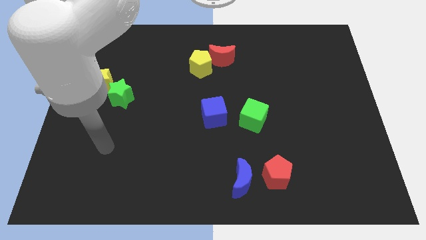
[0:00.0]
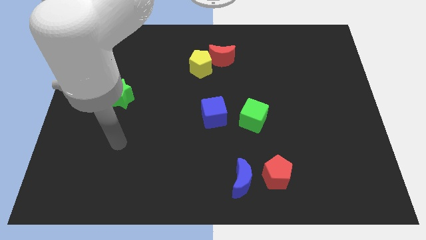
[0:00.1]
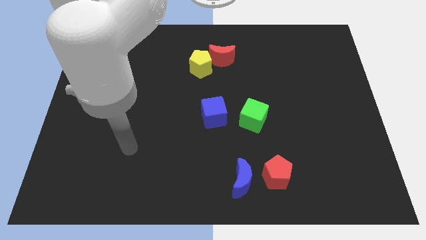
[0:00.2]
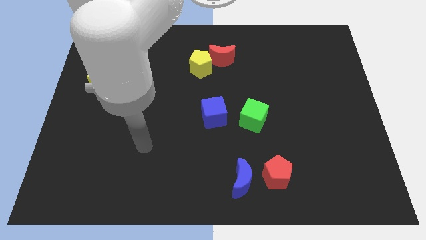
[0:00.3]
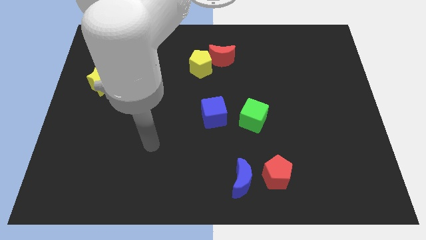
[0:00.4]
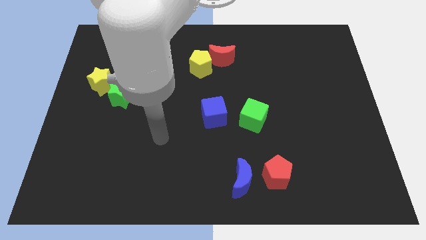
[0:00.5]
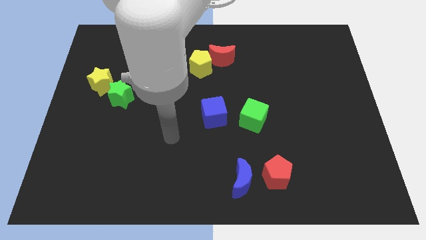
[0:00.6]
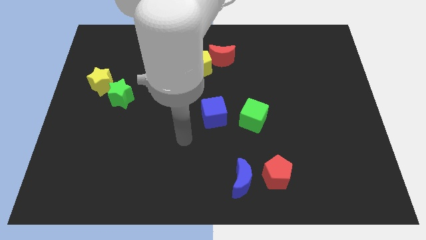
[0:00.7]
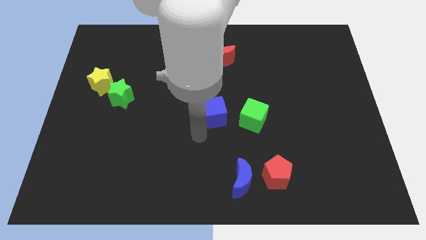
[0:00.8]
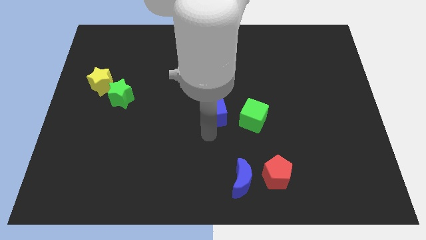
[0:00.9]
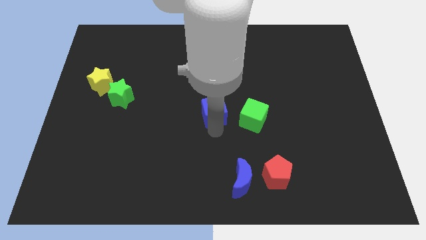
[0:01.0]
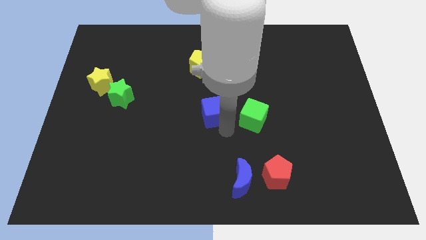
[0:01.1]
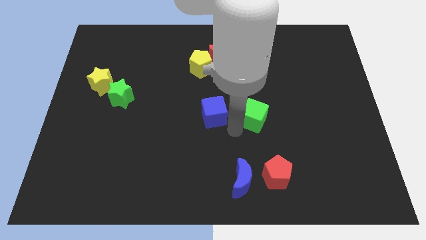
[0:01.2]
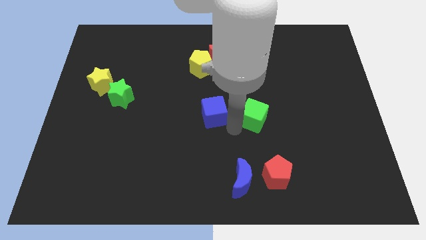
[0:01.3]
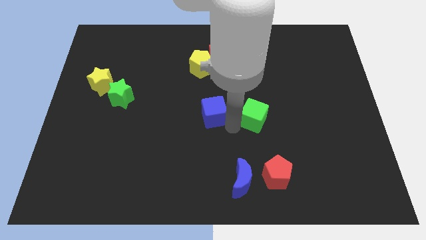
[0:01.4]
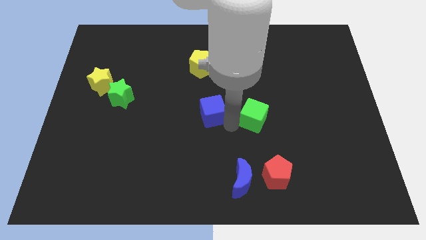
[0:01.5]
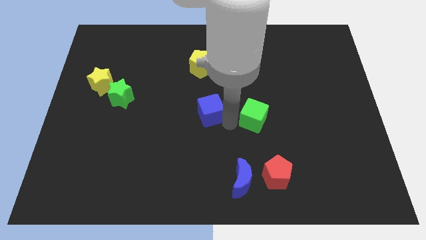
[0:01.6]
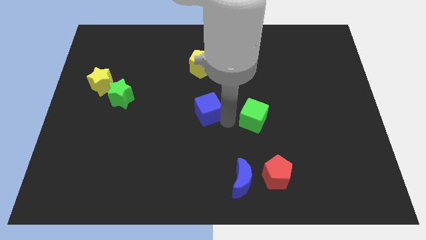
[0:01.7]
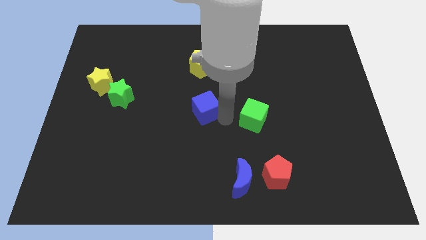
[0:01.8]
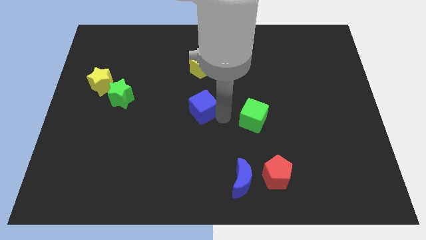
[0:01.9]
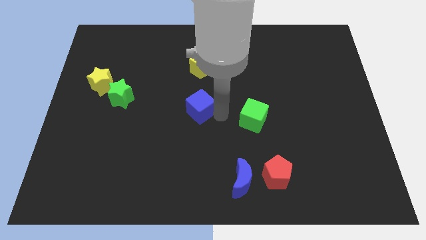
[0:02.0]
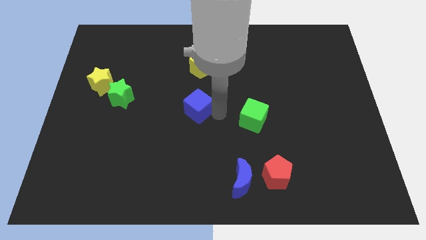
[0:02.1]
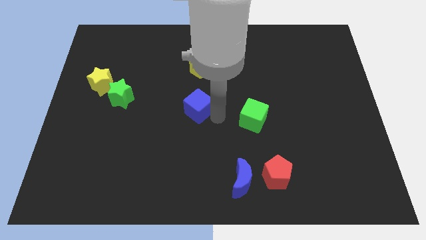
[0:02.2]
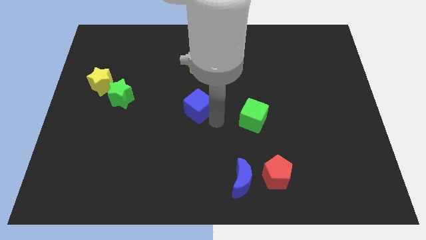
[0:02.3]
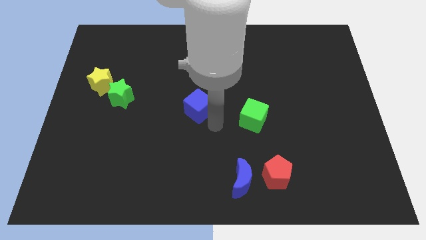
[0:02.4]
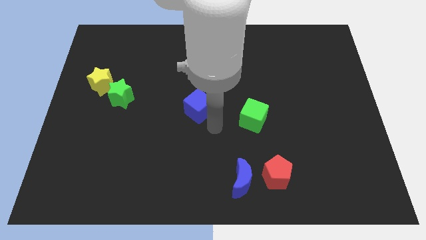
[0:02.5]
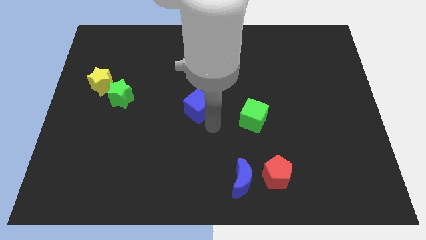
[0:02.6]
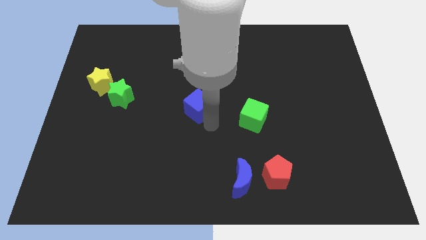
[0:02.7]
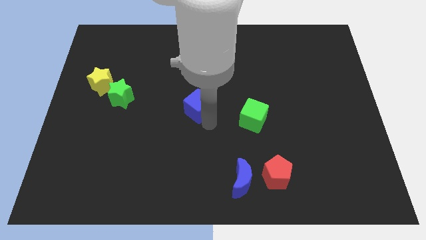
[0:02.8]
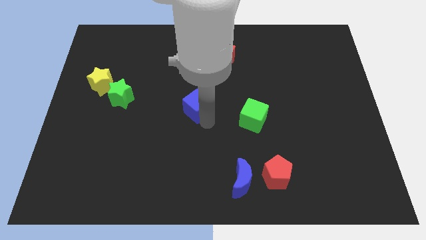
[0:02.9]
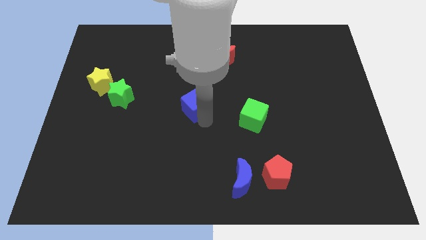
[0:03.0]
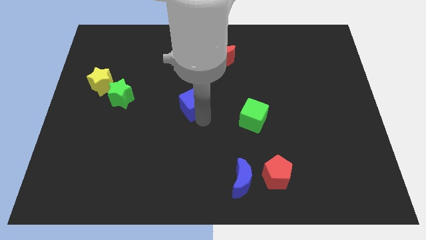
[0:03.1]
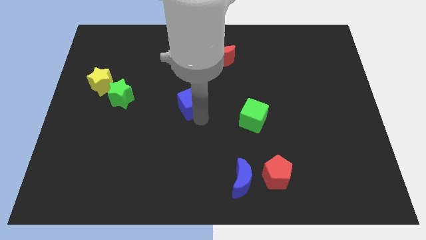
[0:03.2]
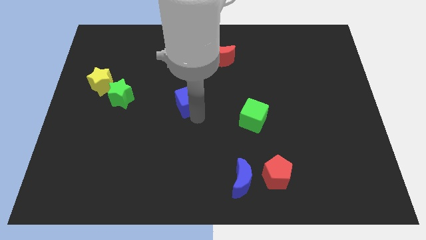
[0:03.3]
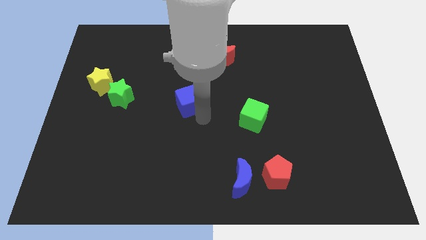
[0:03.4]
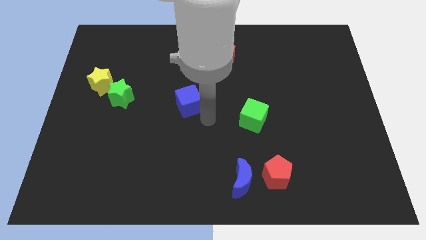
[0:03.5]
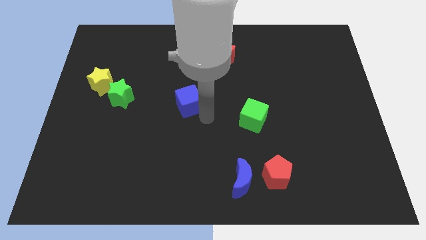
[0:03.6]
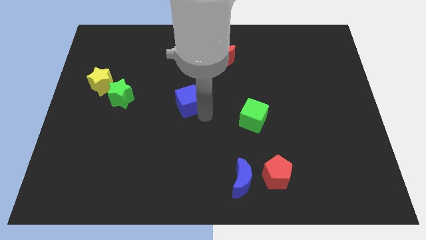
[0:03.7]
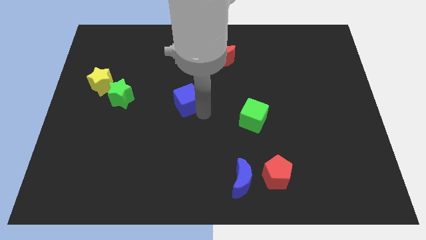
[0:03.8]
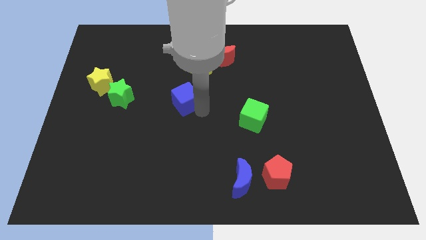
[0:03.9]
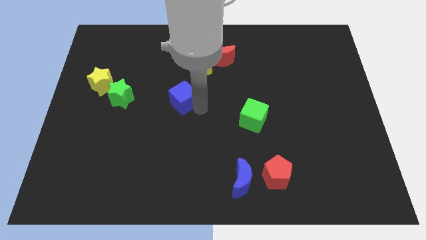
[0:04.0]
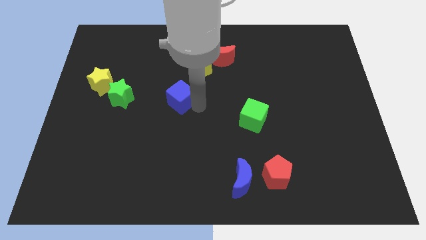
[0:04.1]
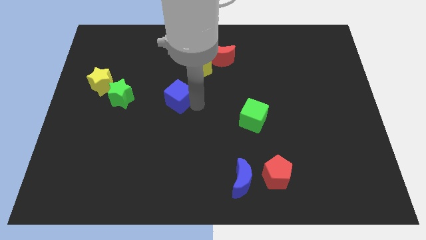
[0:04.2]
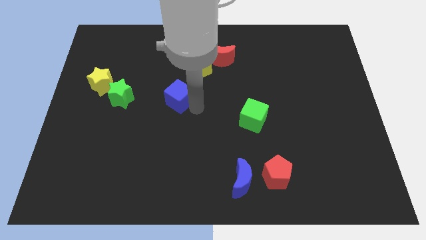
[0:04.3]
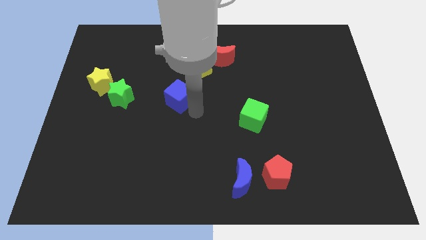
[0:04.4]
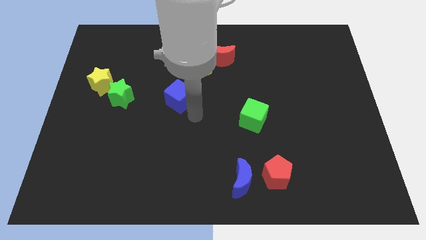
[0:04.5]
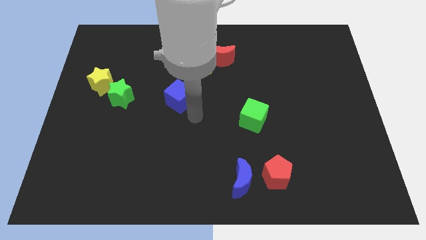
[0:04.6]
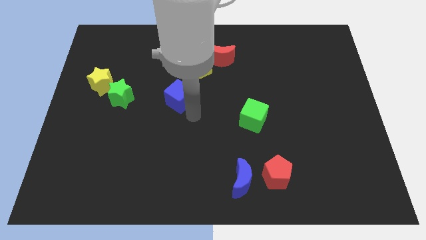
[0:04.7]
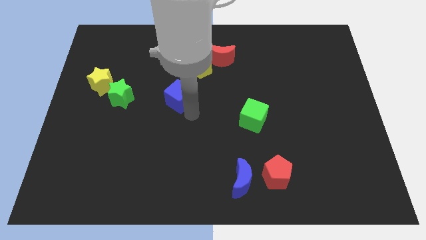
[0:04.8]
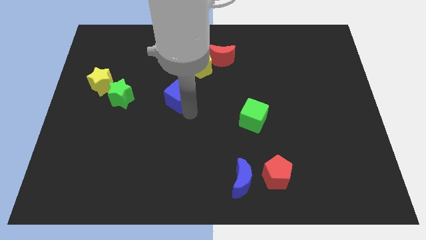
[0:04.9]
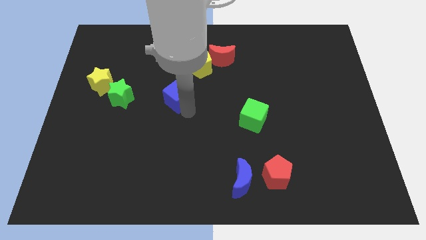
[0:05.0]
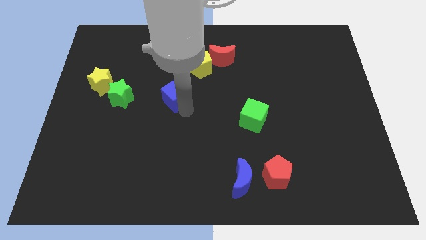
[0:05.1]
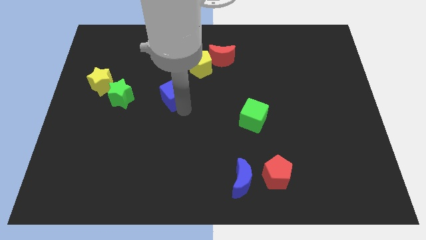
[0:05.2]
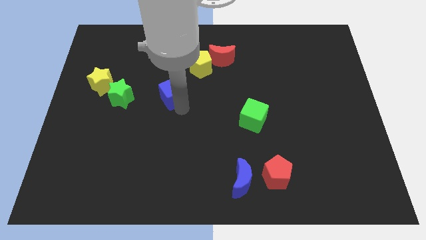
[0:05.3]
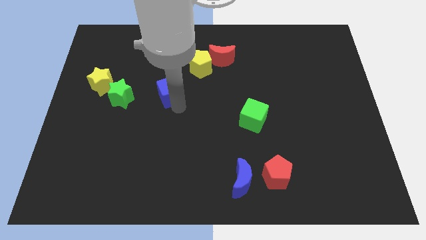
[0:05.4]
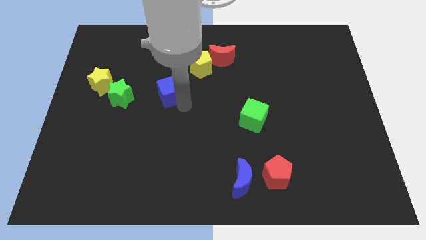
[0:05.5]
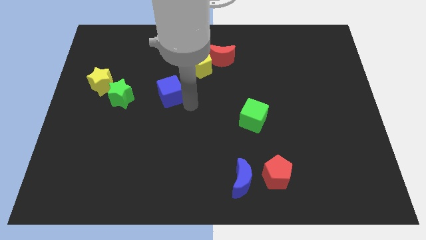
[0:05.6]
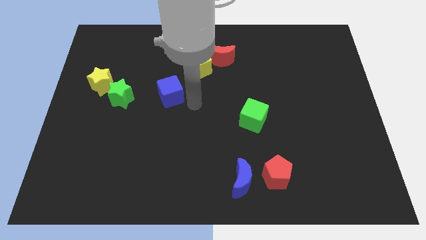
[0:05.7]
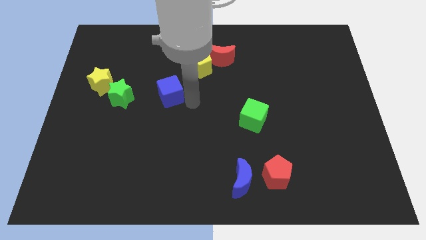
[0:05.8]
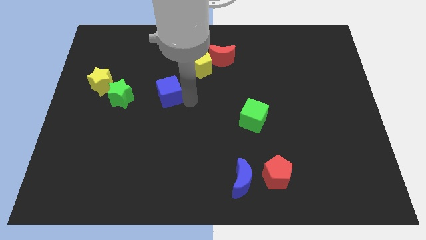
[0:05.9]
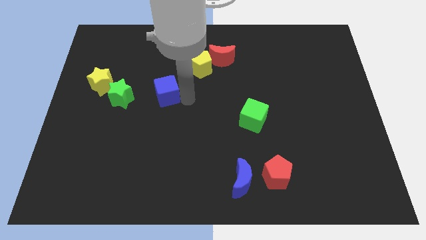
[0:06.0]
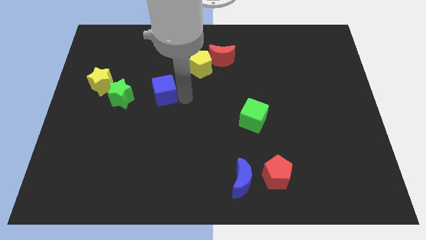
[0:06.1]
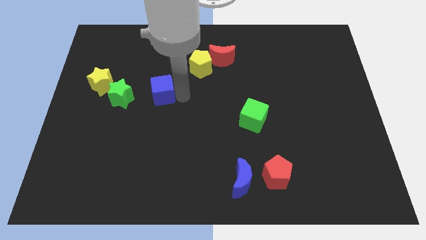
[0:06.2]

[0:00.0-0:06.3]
put the blue cube right of the yellow star

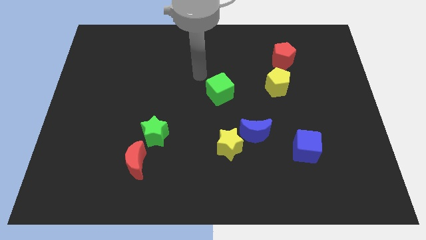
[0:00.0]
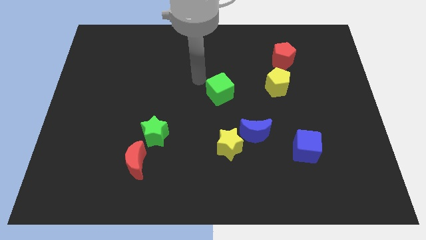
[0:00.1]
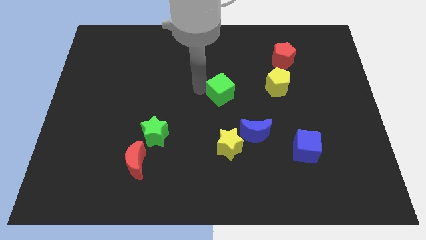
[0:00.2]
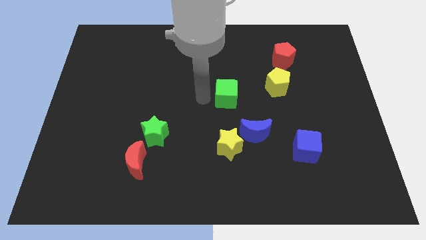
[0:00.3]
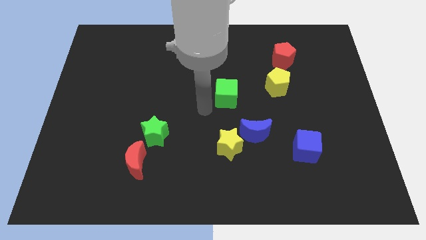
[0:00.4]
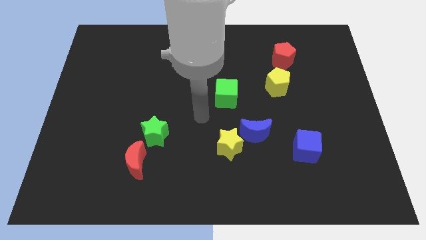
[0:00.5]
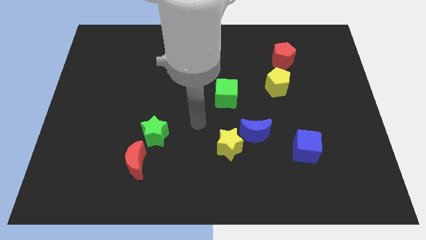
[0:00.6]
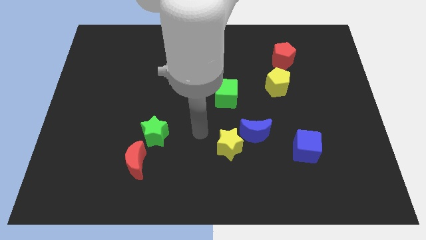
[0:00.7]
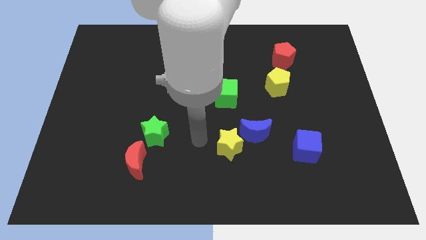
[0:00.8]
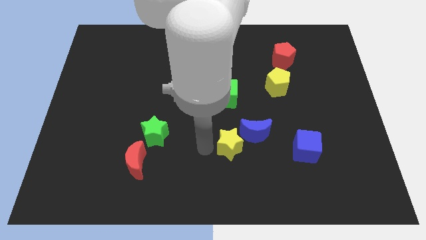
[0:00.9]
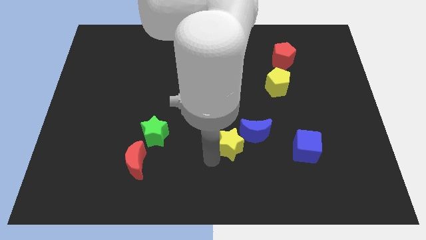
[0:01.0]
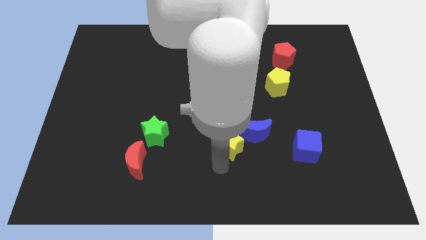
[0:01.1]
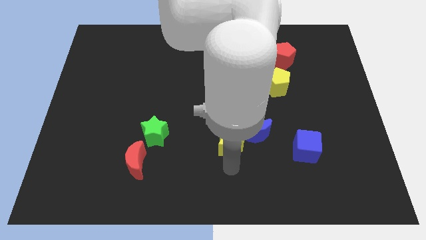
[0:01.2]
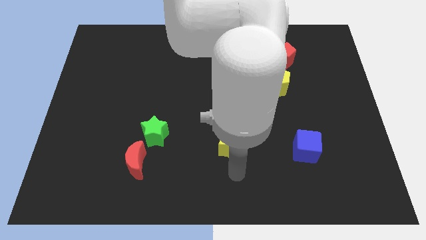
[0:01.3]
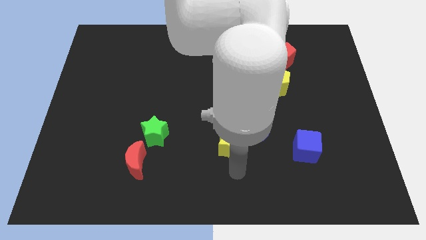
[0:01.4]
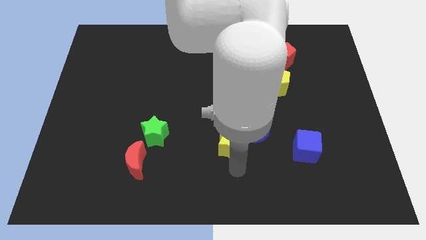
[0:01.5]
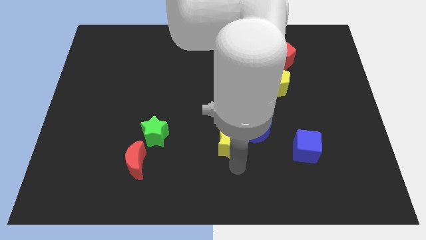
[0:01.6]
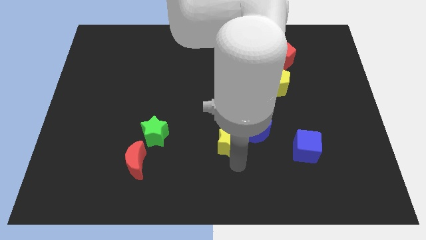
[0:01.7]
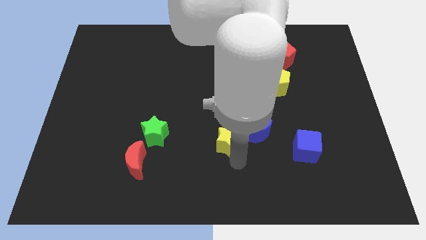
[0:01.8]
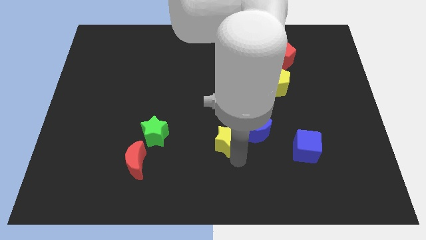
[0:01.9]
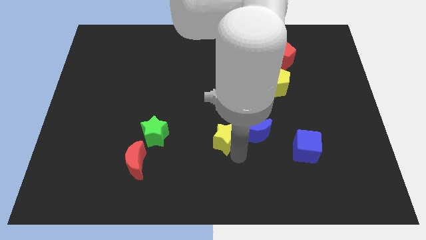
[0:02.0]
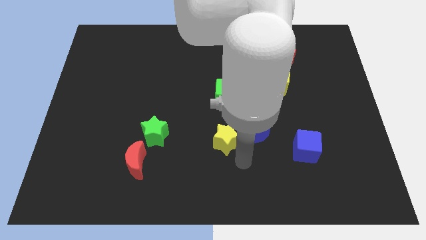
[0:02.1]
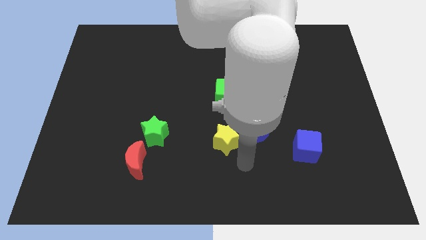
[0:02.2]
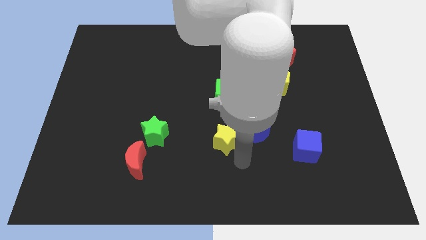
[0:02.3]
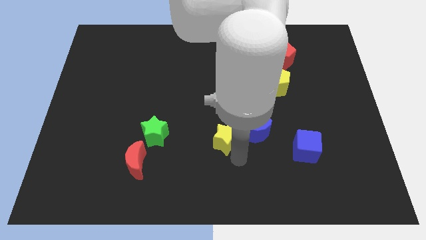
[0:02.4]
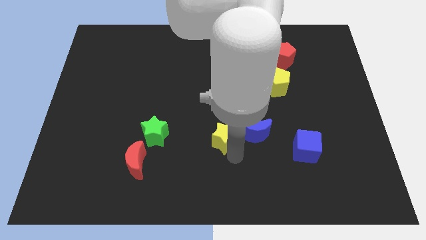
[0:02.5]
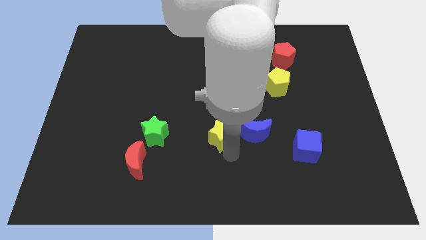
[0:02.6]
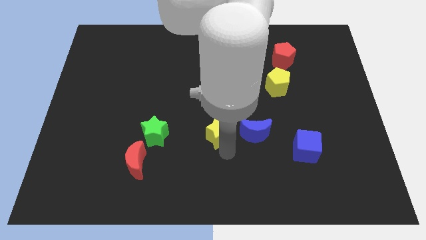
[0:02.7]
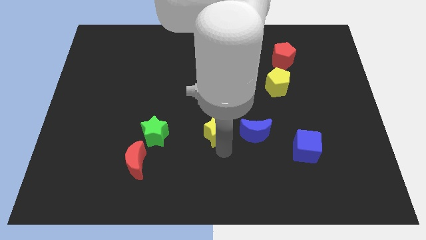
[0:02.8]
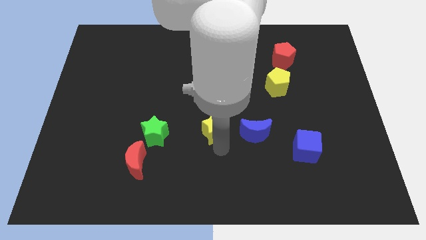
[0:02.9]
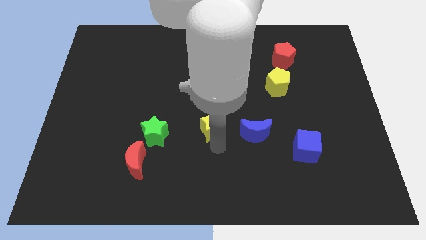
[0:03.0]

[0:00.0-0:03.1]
slide the yellow star to the bottom left side of the green cube
